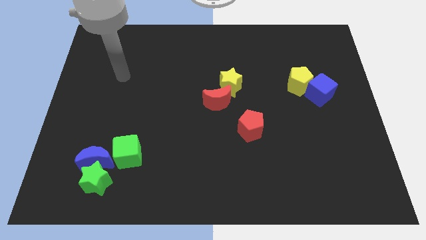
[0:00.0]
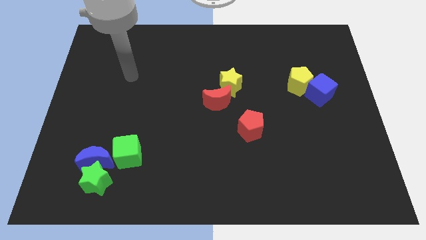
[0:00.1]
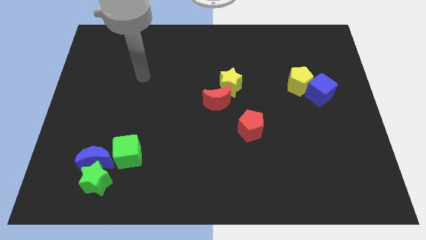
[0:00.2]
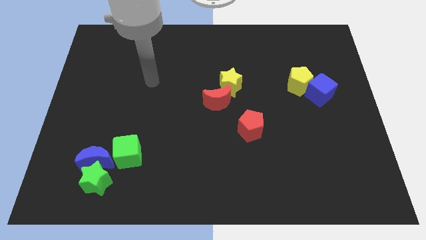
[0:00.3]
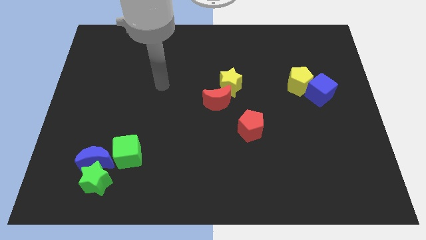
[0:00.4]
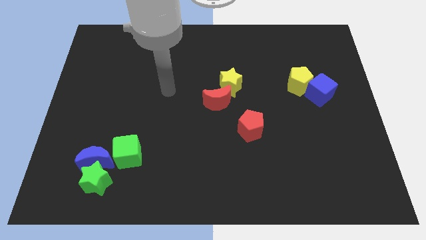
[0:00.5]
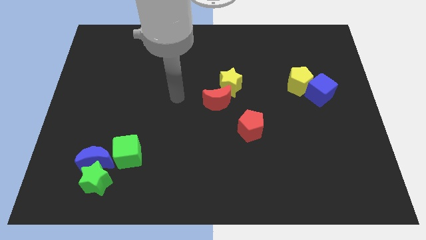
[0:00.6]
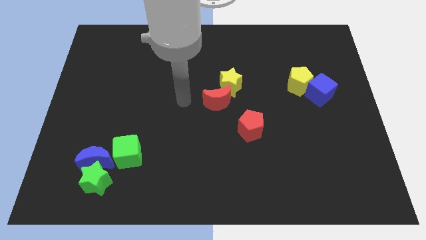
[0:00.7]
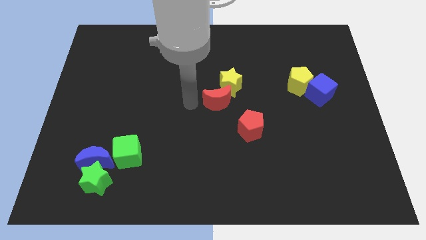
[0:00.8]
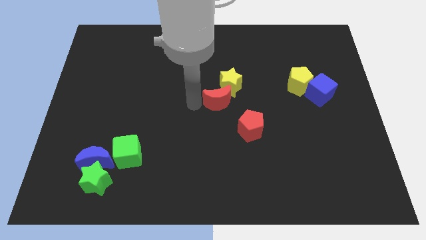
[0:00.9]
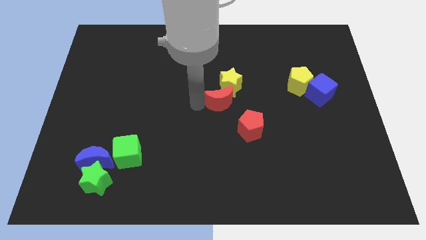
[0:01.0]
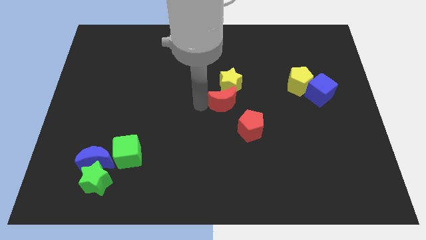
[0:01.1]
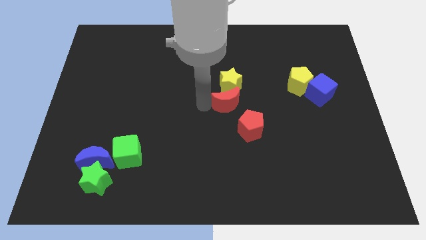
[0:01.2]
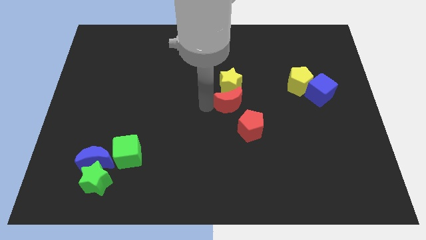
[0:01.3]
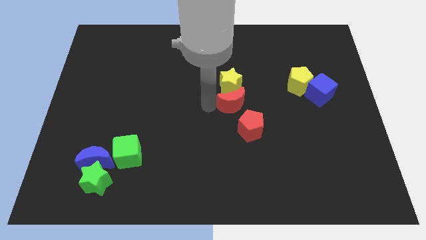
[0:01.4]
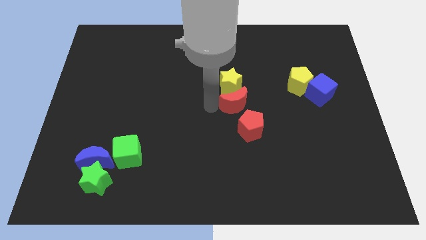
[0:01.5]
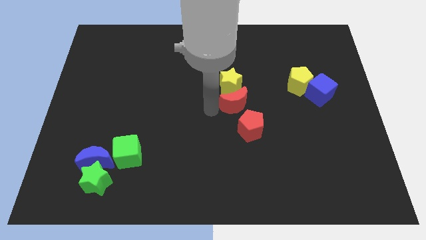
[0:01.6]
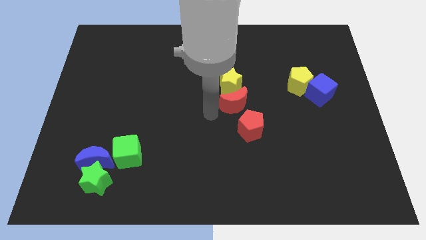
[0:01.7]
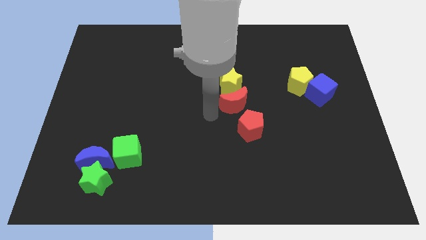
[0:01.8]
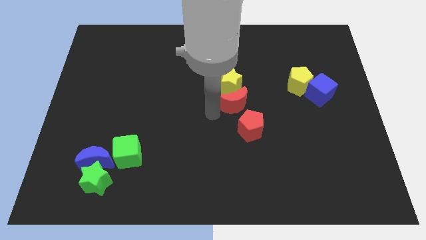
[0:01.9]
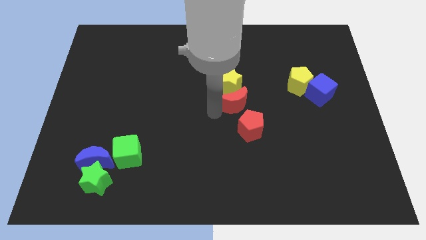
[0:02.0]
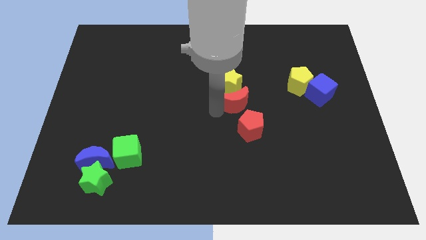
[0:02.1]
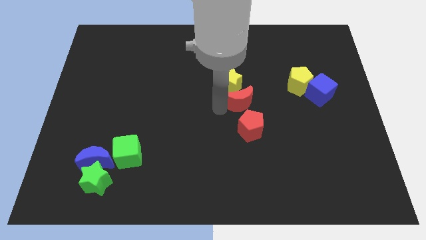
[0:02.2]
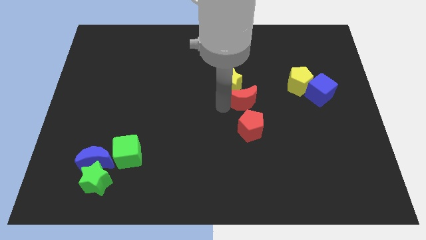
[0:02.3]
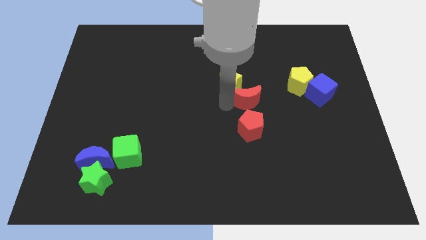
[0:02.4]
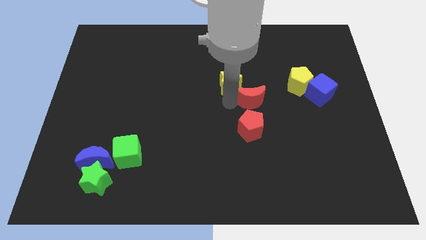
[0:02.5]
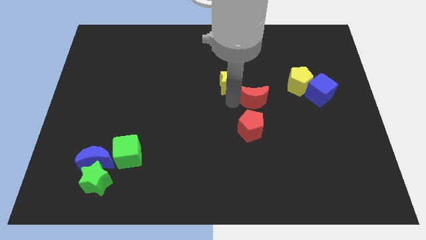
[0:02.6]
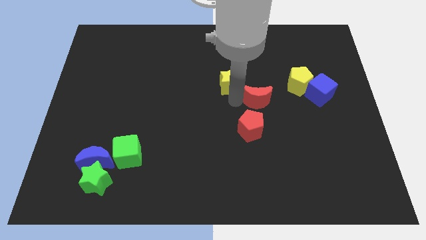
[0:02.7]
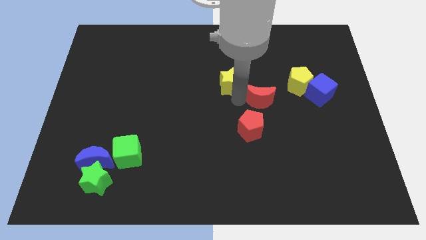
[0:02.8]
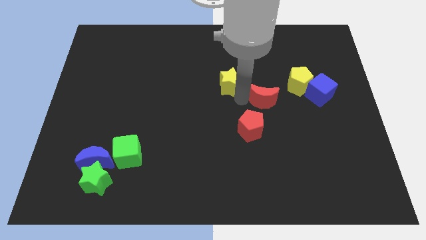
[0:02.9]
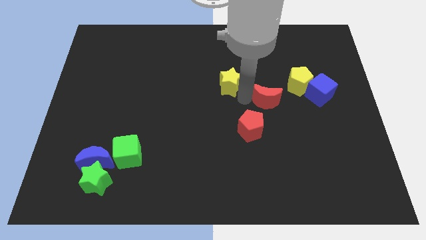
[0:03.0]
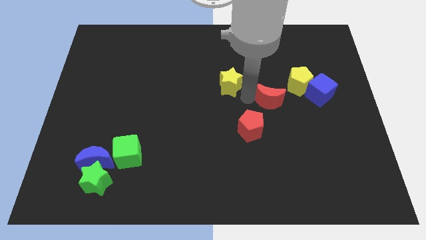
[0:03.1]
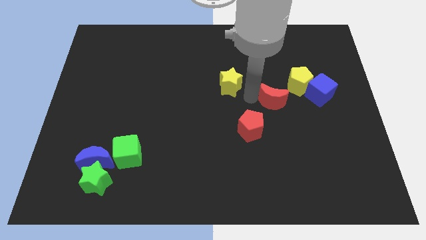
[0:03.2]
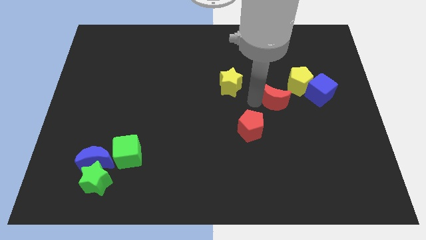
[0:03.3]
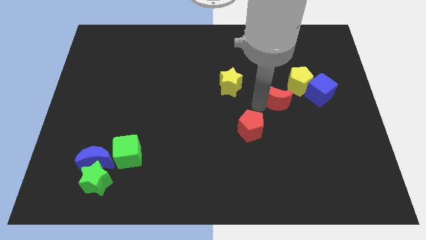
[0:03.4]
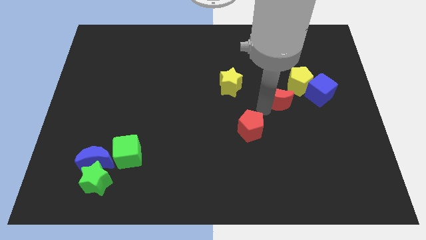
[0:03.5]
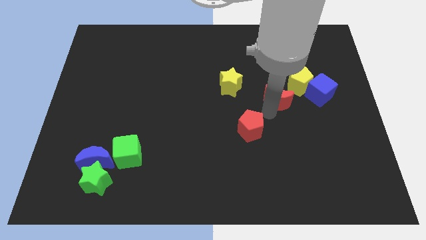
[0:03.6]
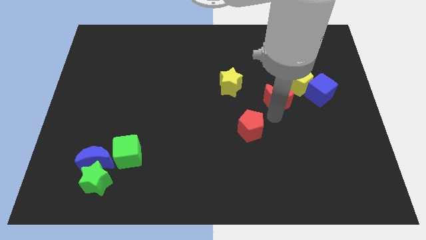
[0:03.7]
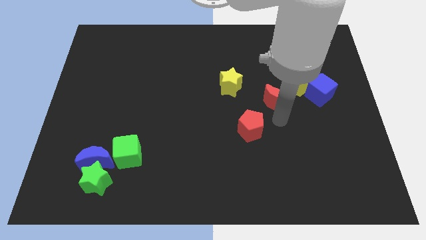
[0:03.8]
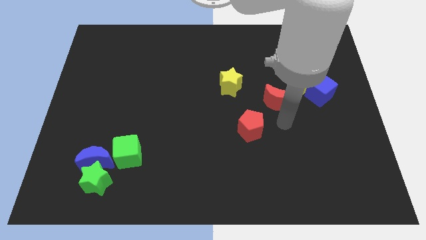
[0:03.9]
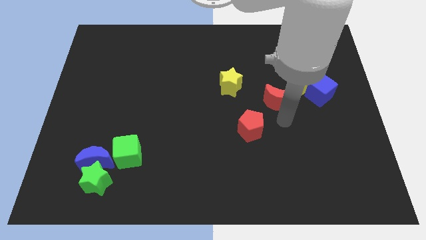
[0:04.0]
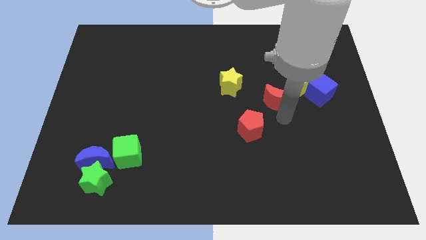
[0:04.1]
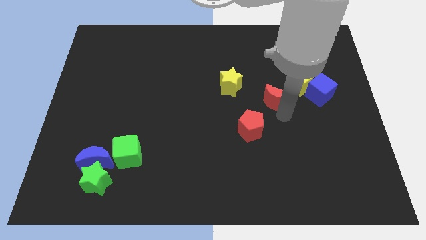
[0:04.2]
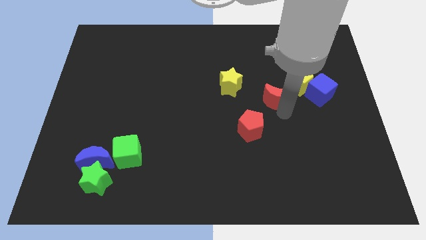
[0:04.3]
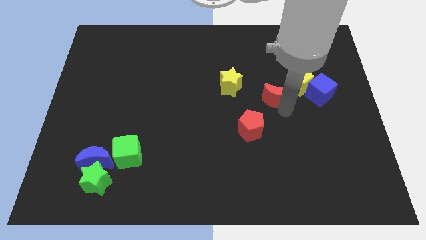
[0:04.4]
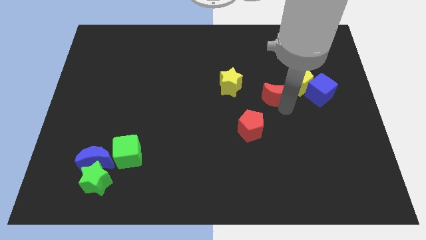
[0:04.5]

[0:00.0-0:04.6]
move the red moon a little bit up and to the right

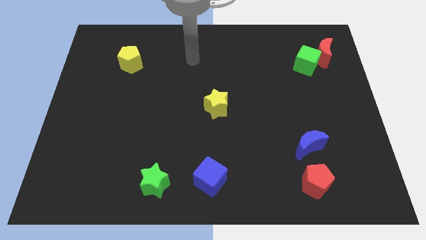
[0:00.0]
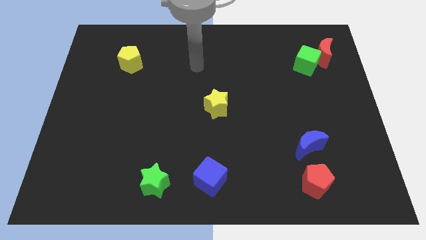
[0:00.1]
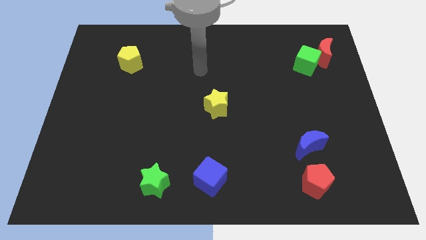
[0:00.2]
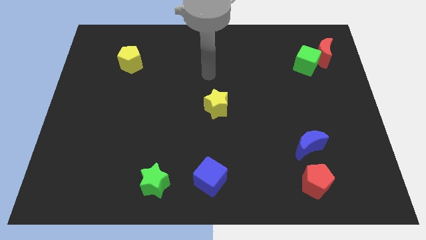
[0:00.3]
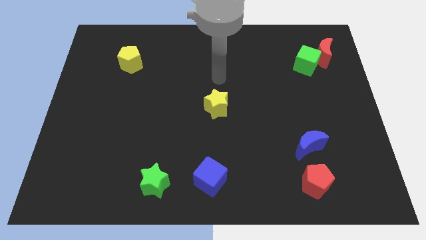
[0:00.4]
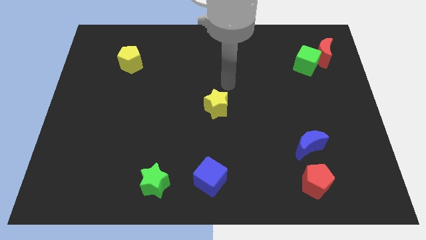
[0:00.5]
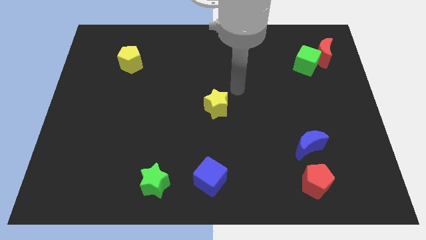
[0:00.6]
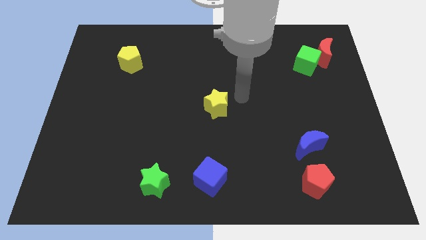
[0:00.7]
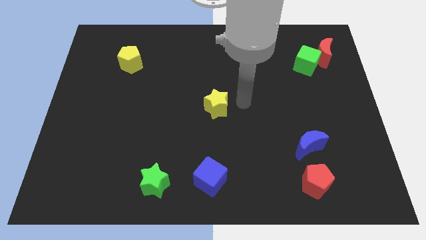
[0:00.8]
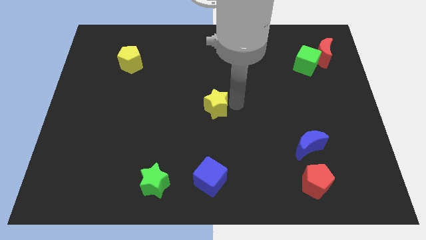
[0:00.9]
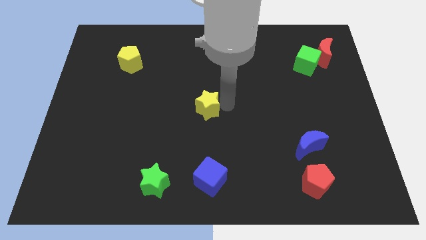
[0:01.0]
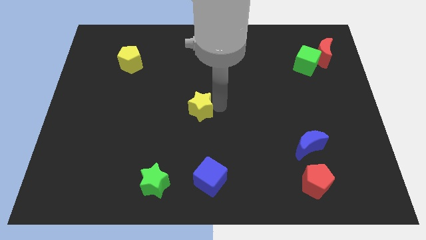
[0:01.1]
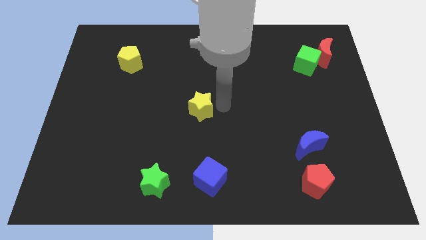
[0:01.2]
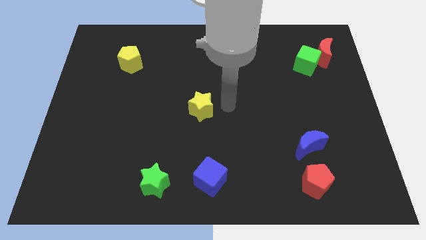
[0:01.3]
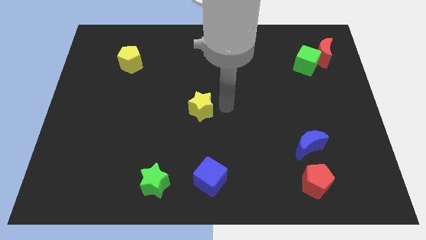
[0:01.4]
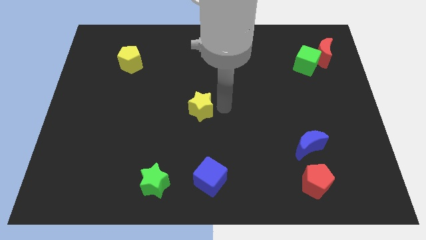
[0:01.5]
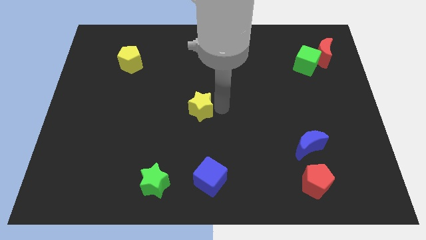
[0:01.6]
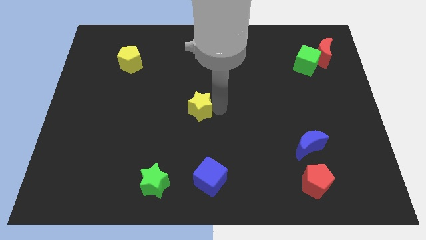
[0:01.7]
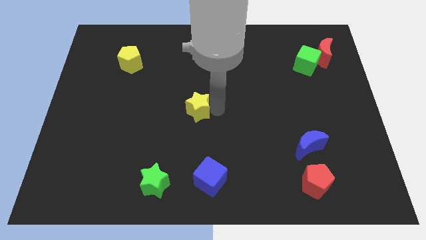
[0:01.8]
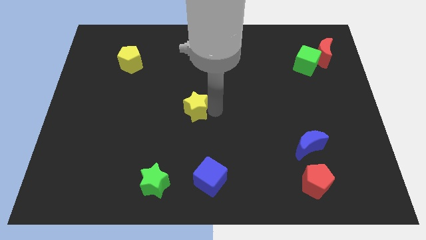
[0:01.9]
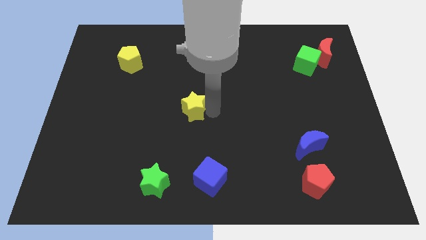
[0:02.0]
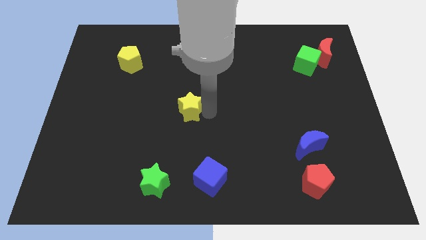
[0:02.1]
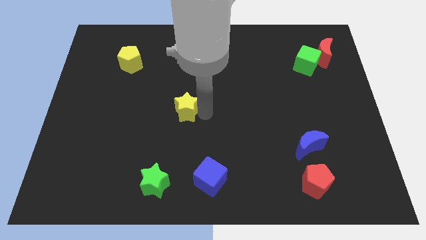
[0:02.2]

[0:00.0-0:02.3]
slightly move the yellow star left

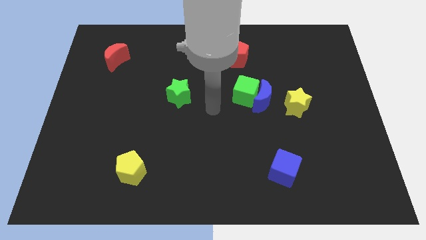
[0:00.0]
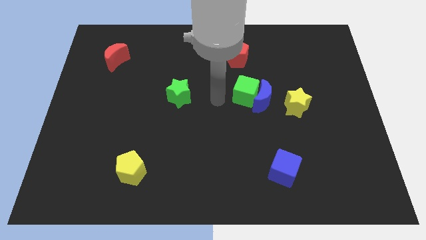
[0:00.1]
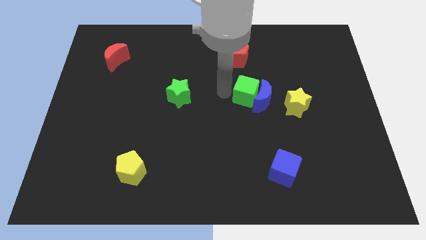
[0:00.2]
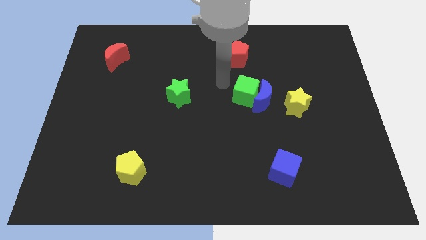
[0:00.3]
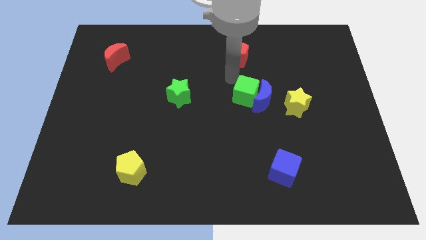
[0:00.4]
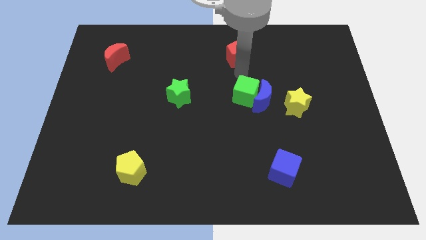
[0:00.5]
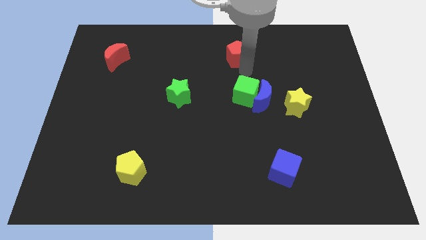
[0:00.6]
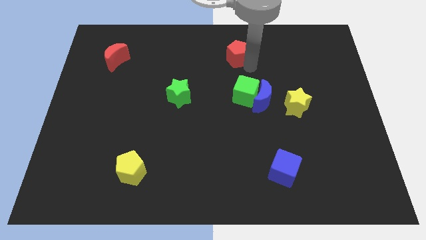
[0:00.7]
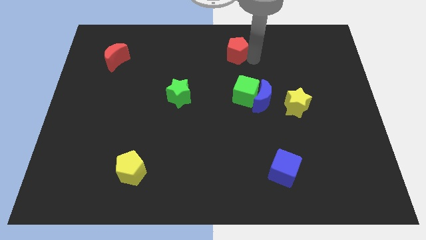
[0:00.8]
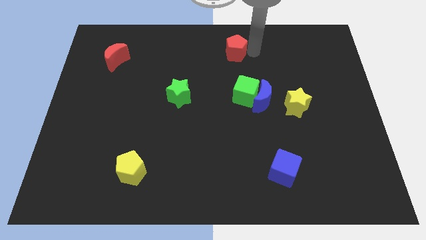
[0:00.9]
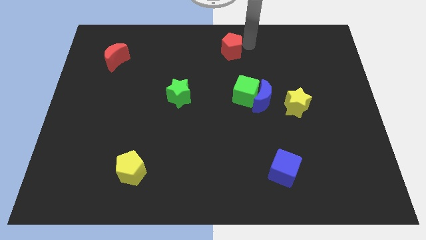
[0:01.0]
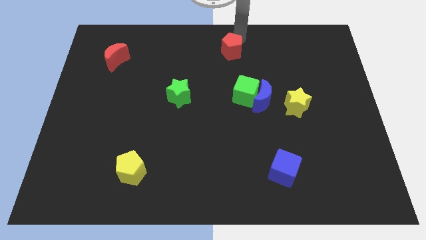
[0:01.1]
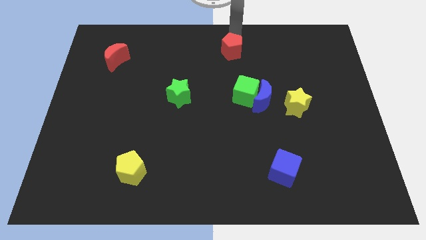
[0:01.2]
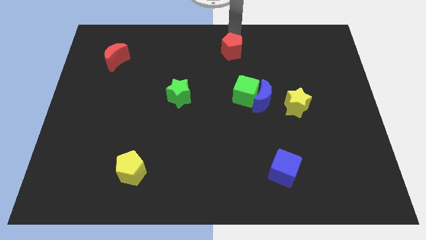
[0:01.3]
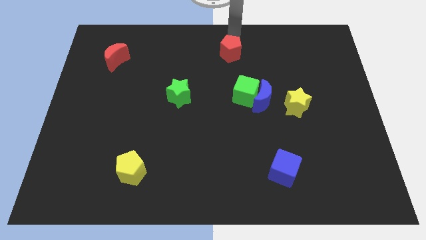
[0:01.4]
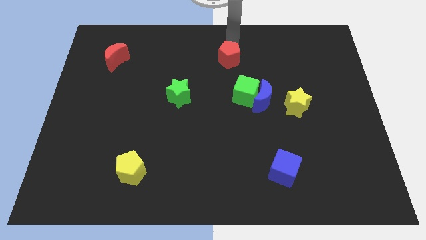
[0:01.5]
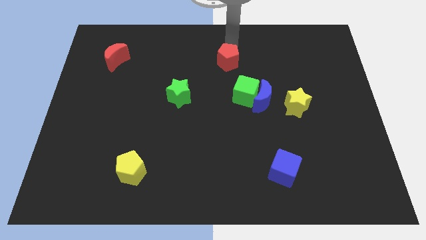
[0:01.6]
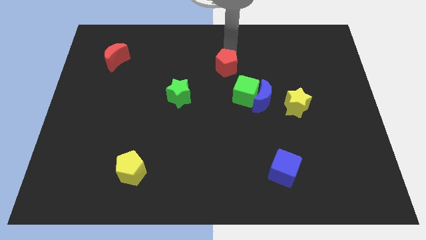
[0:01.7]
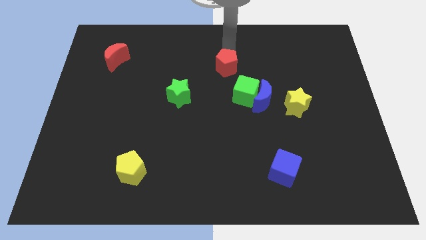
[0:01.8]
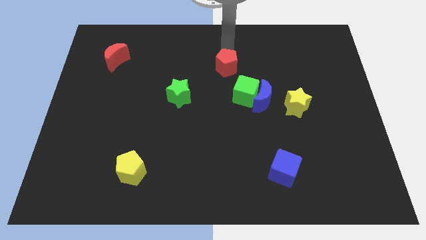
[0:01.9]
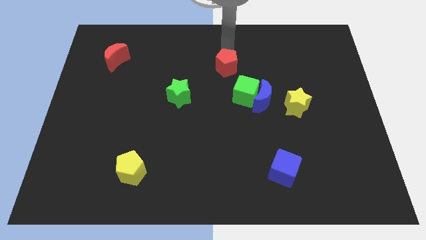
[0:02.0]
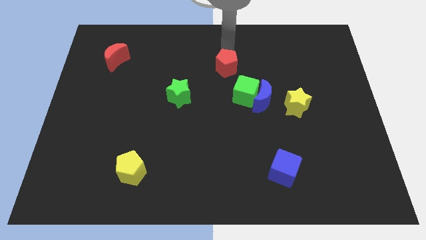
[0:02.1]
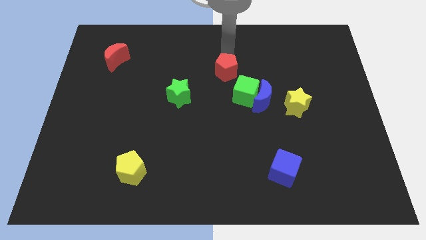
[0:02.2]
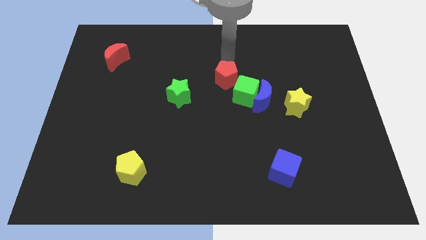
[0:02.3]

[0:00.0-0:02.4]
move the red pentagon down a bit
